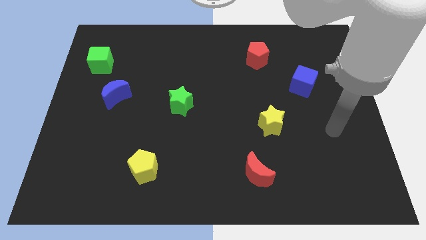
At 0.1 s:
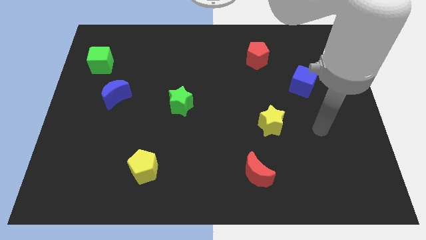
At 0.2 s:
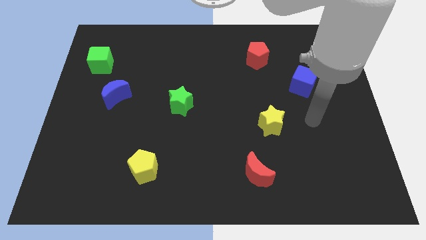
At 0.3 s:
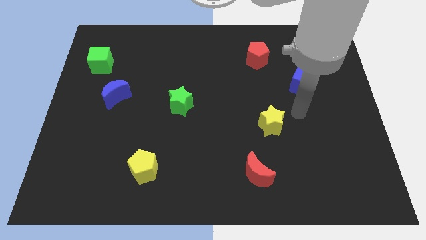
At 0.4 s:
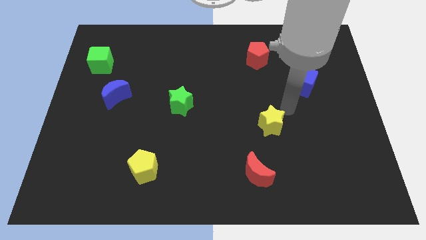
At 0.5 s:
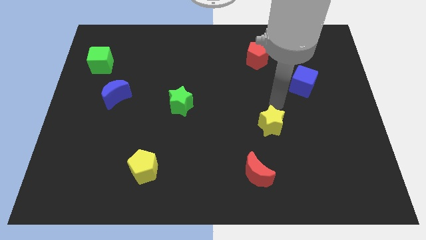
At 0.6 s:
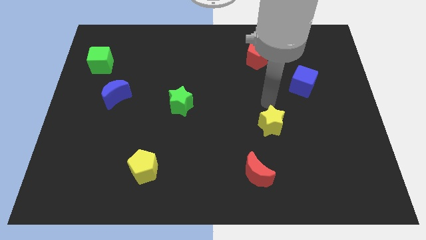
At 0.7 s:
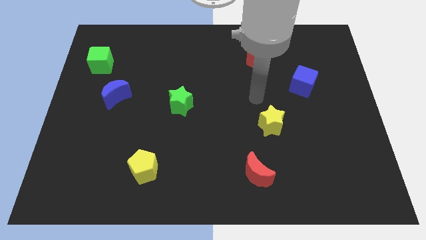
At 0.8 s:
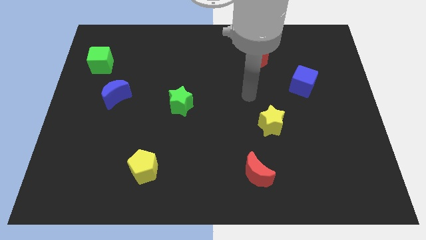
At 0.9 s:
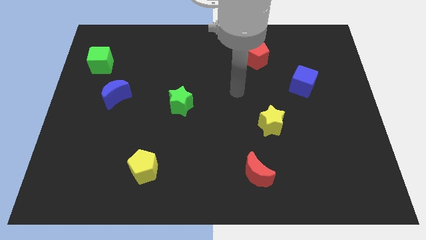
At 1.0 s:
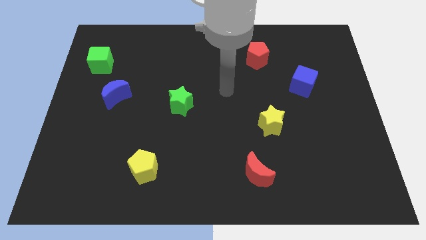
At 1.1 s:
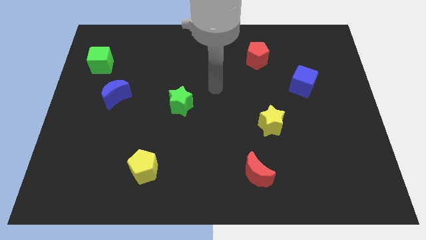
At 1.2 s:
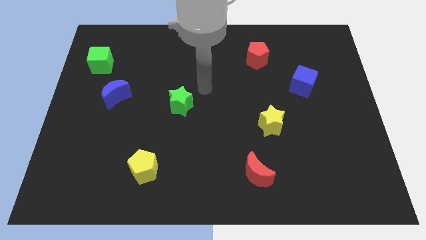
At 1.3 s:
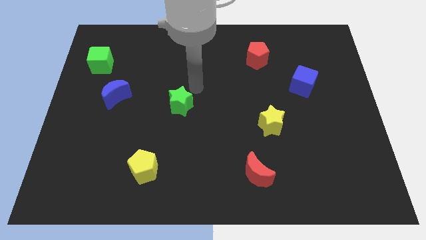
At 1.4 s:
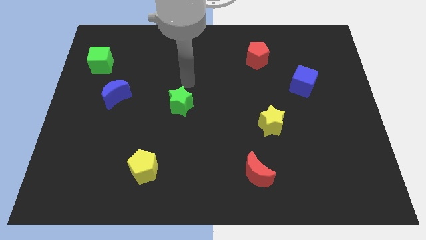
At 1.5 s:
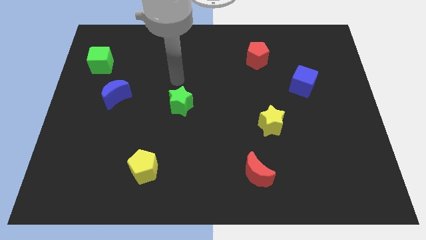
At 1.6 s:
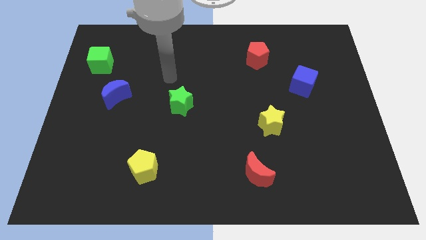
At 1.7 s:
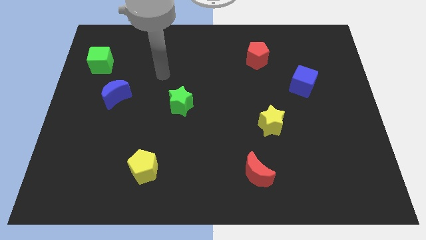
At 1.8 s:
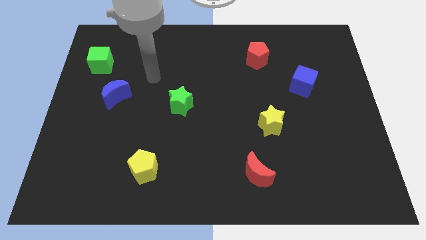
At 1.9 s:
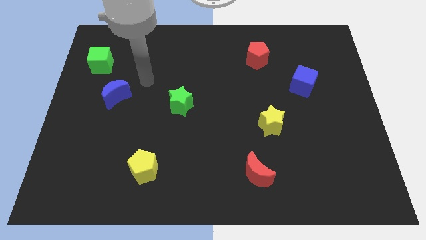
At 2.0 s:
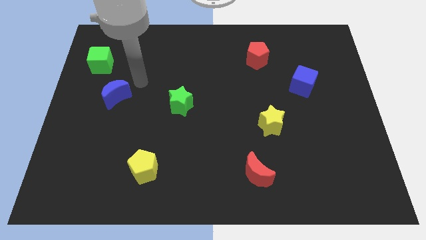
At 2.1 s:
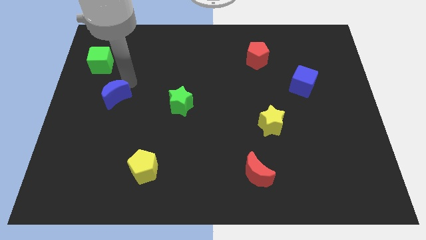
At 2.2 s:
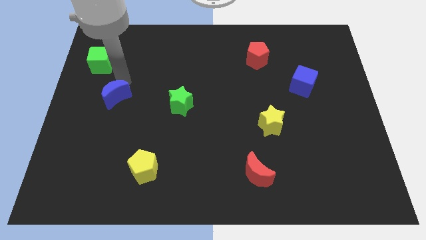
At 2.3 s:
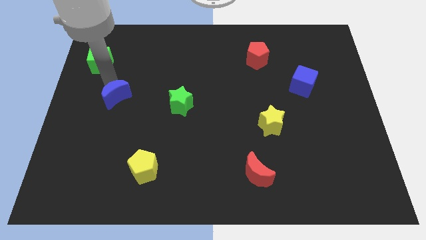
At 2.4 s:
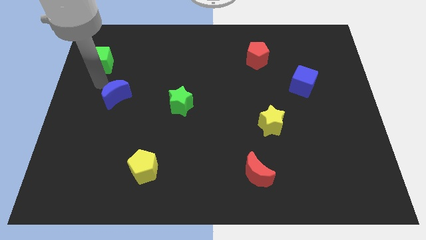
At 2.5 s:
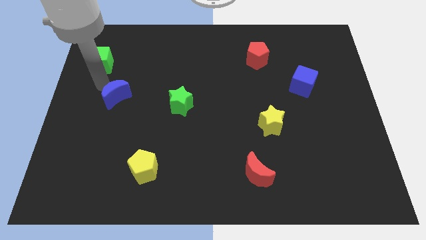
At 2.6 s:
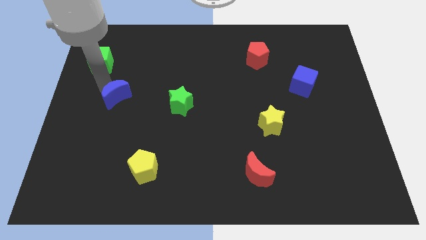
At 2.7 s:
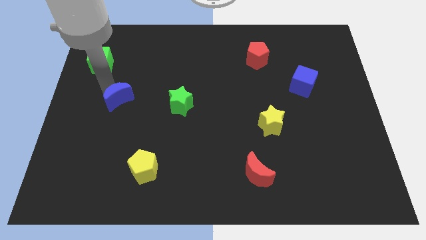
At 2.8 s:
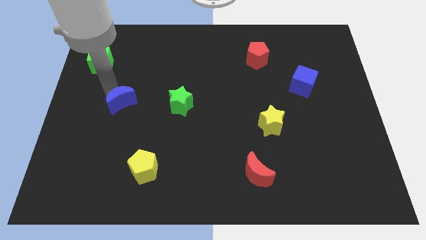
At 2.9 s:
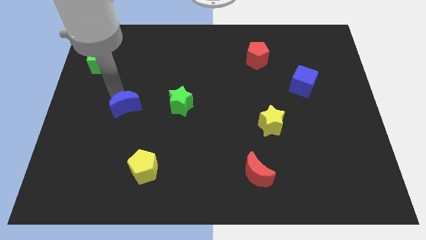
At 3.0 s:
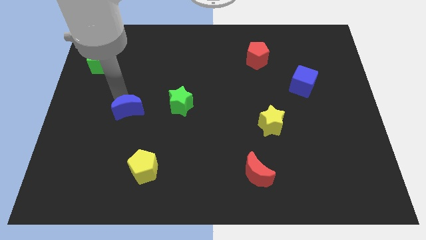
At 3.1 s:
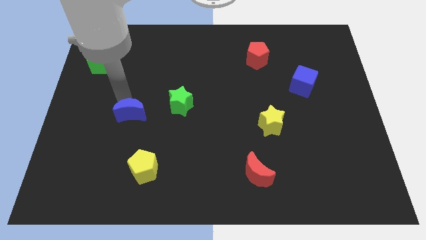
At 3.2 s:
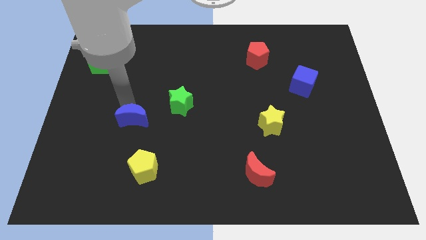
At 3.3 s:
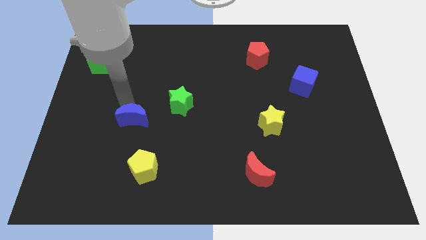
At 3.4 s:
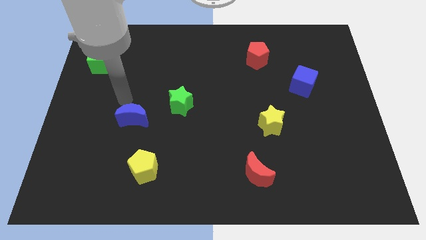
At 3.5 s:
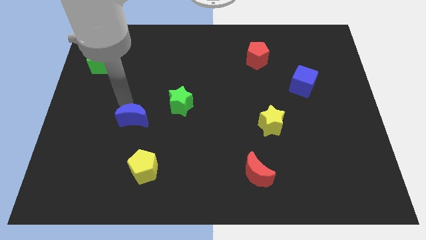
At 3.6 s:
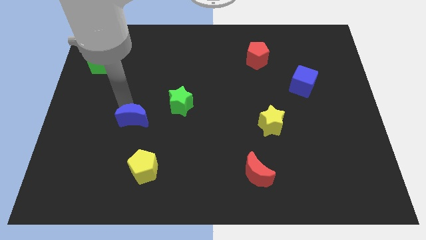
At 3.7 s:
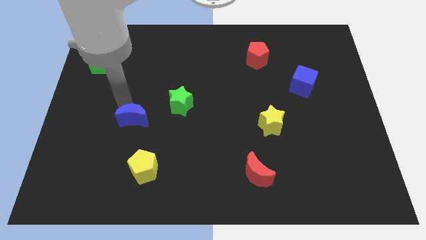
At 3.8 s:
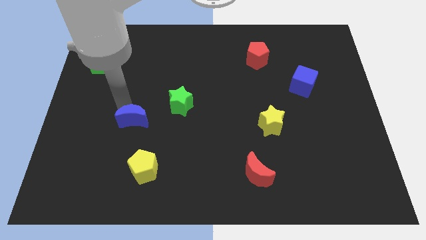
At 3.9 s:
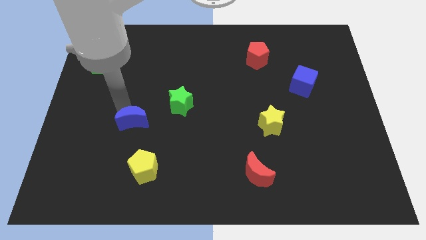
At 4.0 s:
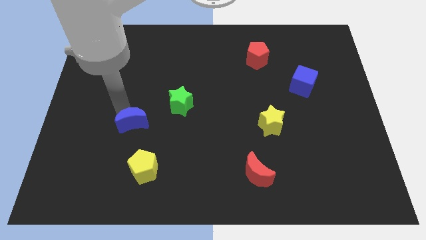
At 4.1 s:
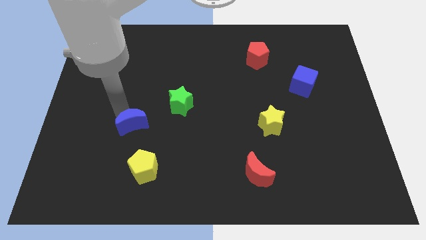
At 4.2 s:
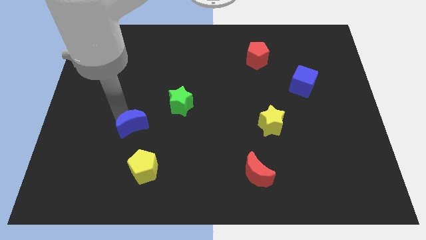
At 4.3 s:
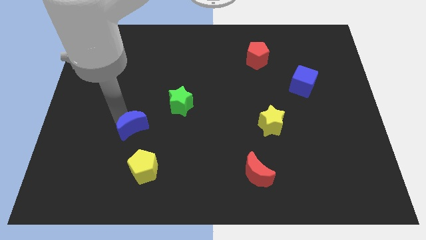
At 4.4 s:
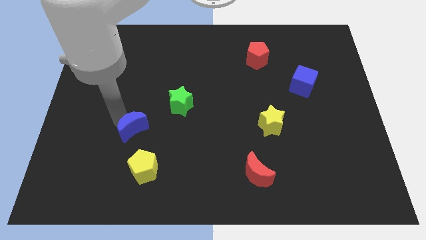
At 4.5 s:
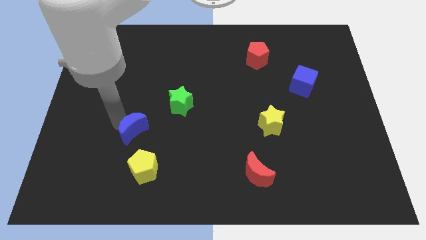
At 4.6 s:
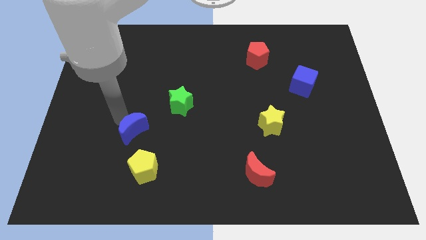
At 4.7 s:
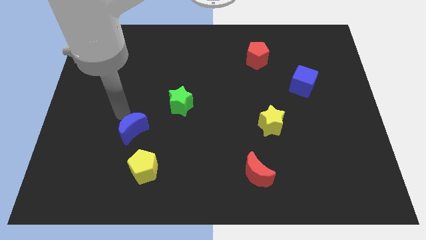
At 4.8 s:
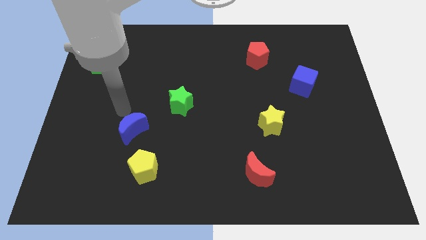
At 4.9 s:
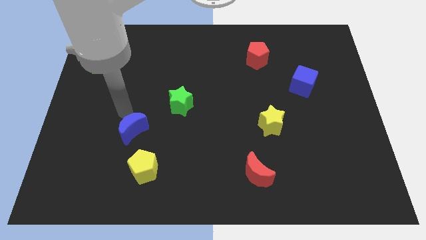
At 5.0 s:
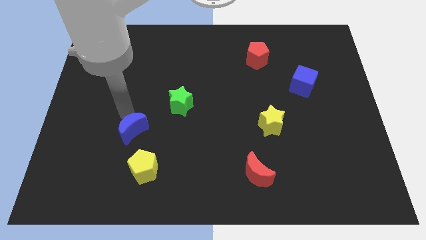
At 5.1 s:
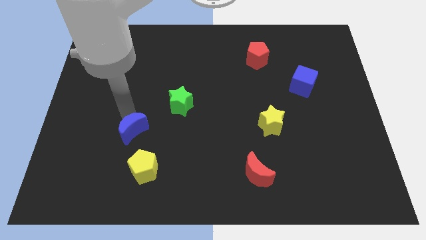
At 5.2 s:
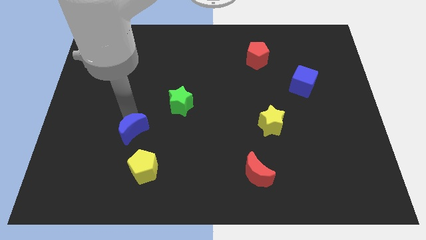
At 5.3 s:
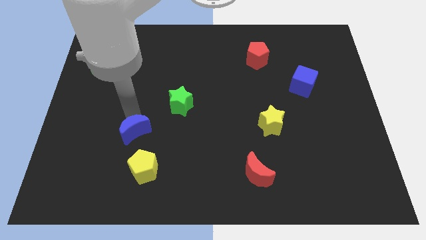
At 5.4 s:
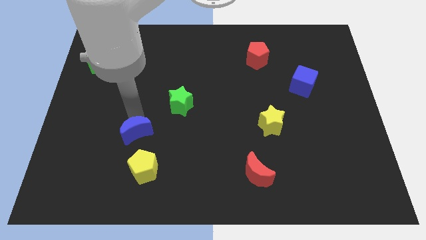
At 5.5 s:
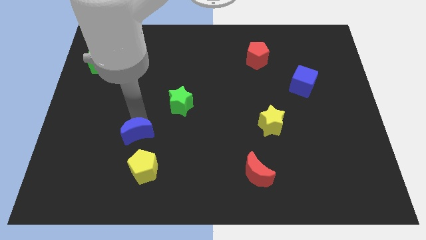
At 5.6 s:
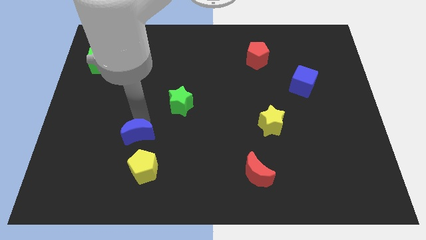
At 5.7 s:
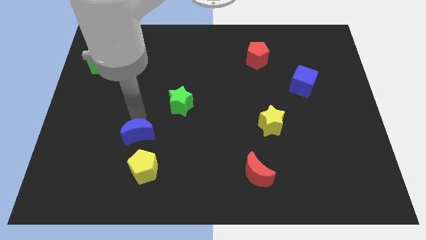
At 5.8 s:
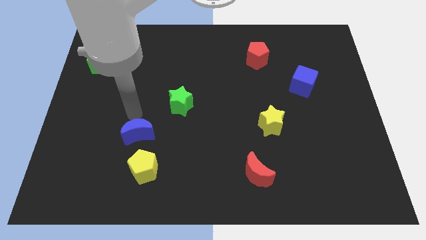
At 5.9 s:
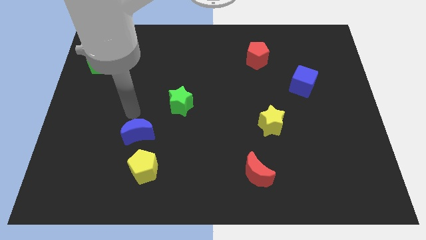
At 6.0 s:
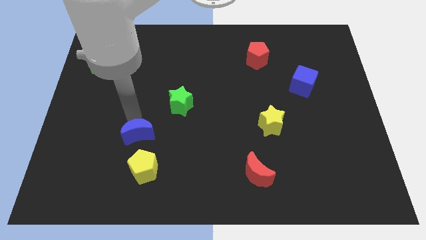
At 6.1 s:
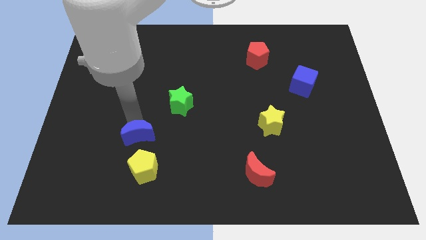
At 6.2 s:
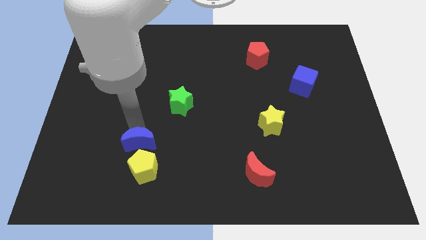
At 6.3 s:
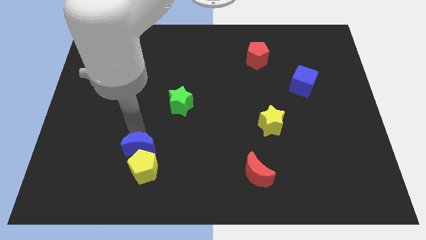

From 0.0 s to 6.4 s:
put the blue moon towards the yellow pentagon

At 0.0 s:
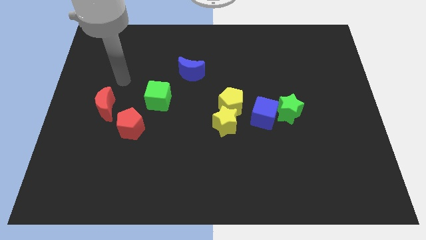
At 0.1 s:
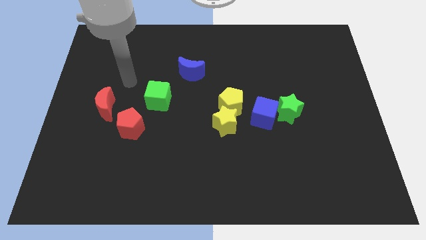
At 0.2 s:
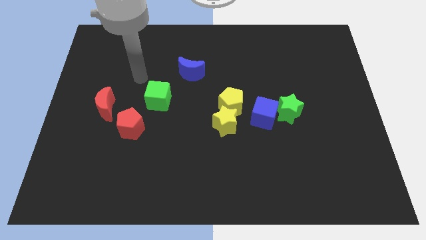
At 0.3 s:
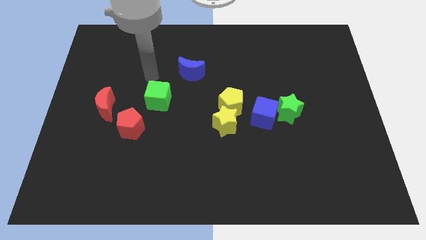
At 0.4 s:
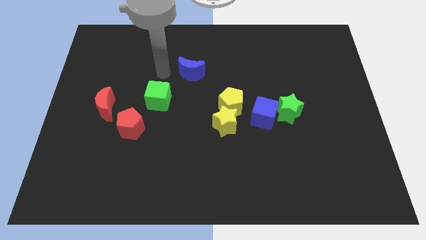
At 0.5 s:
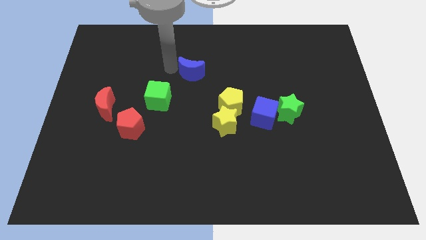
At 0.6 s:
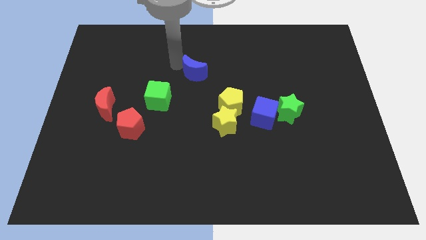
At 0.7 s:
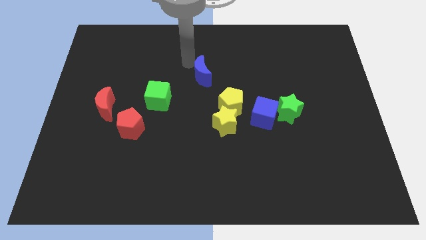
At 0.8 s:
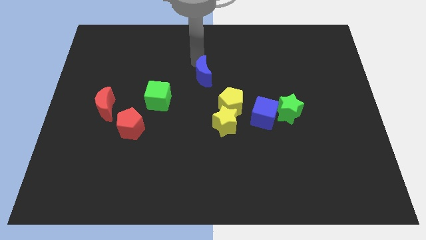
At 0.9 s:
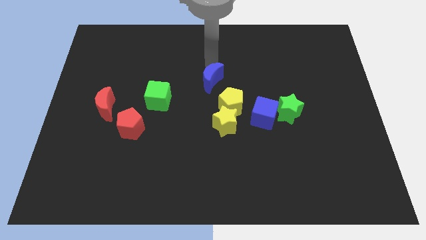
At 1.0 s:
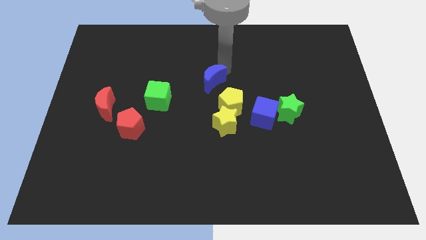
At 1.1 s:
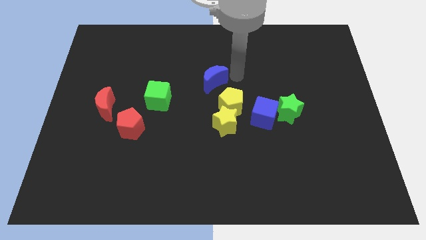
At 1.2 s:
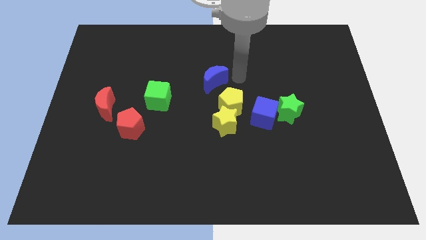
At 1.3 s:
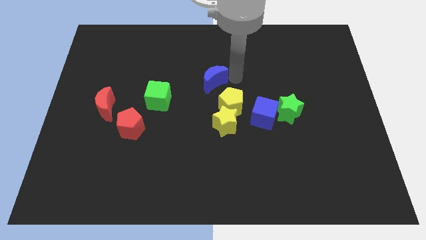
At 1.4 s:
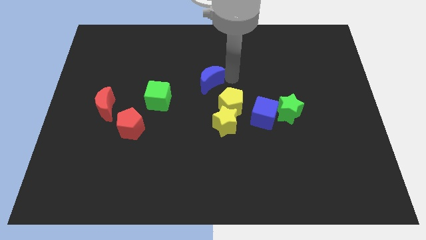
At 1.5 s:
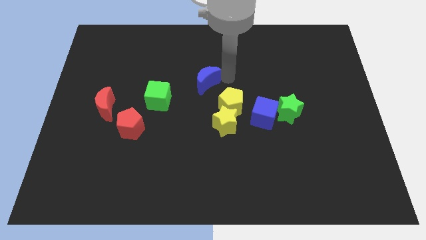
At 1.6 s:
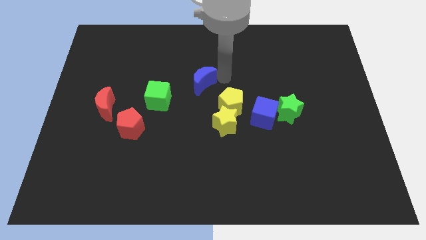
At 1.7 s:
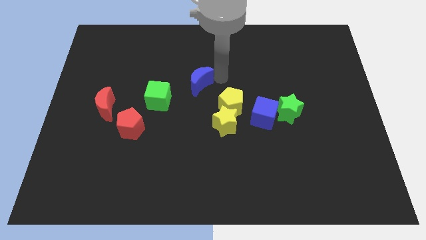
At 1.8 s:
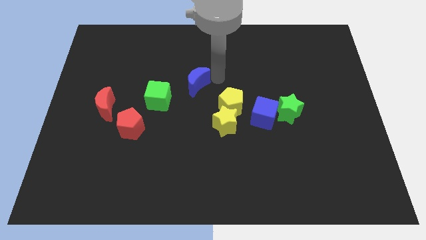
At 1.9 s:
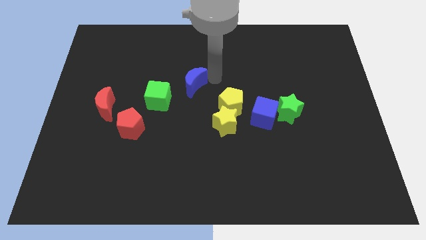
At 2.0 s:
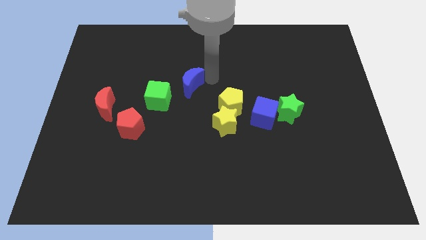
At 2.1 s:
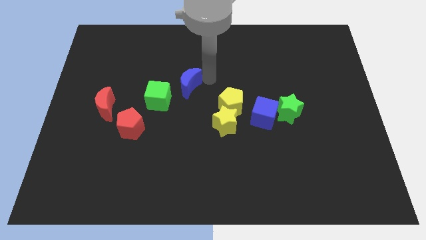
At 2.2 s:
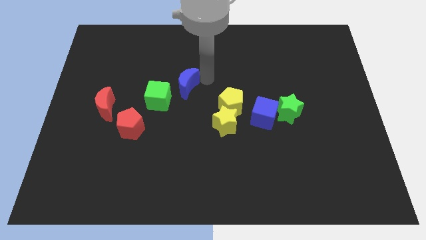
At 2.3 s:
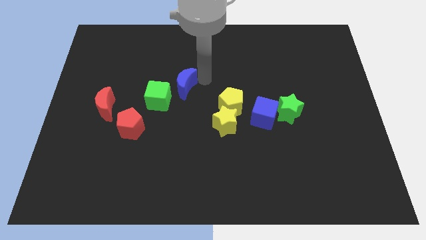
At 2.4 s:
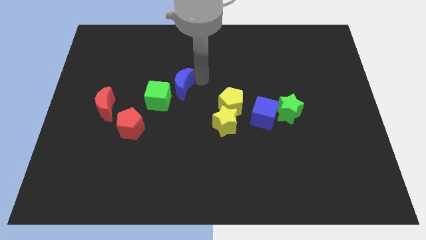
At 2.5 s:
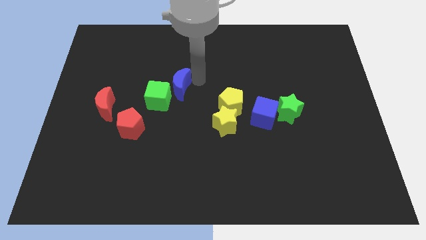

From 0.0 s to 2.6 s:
move the blue moon to the green cube
